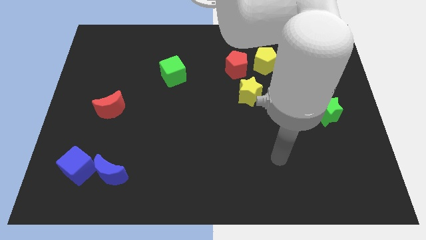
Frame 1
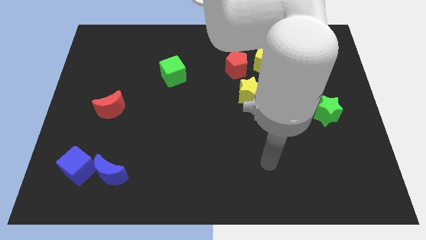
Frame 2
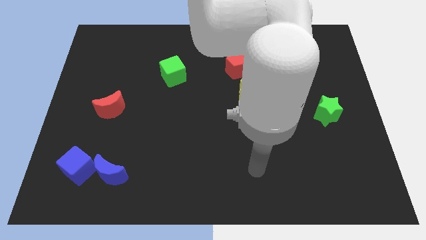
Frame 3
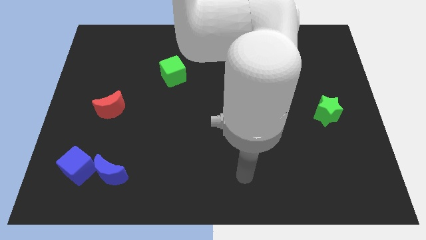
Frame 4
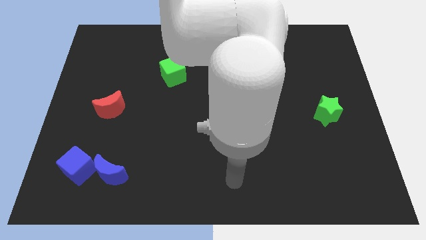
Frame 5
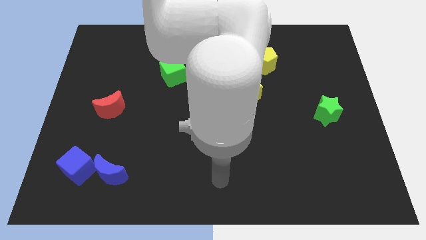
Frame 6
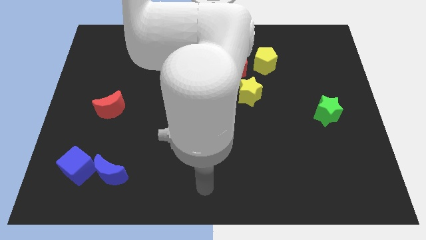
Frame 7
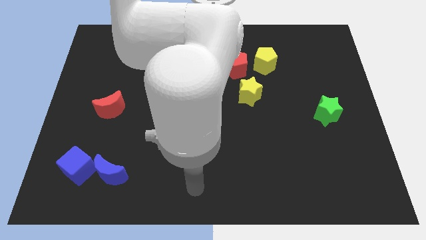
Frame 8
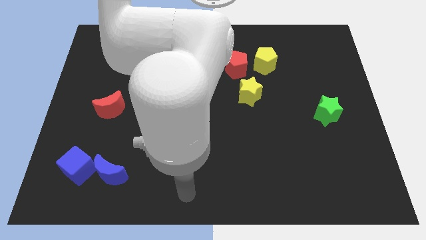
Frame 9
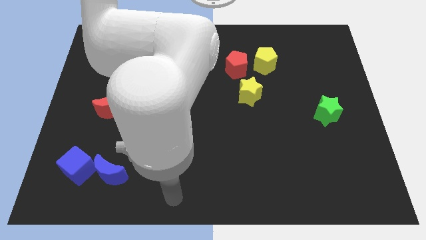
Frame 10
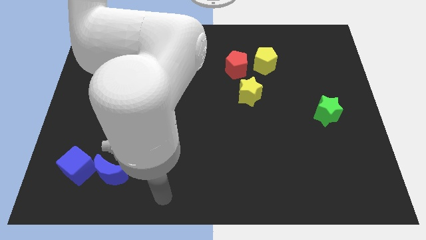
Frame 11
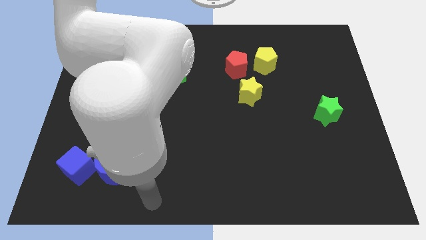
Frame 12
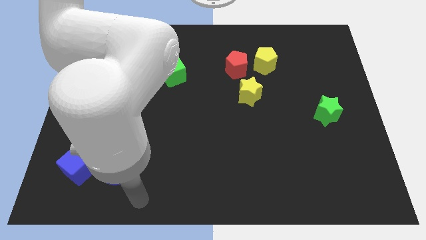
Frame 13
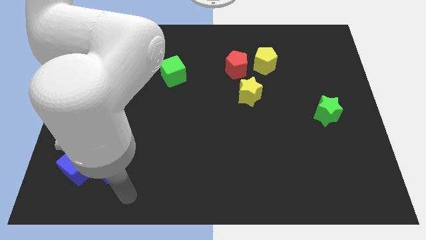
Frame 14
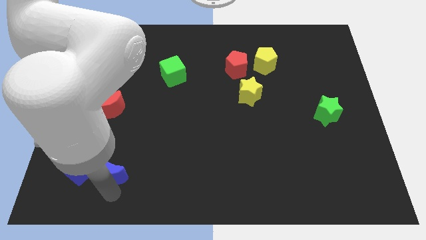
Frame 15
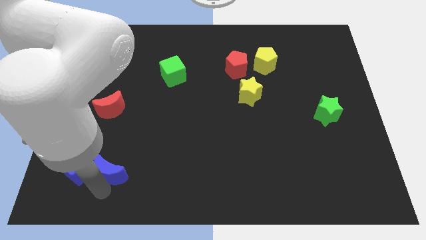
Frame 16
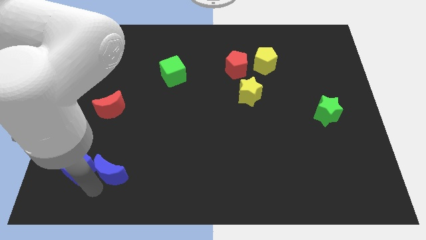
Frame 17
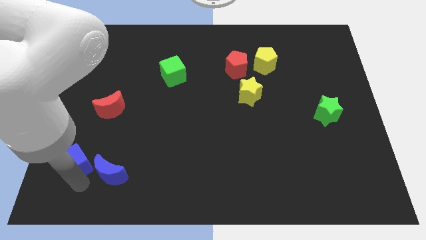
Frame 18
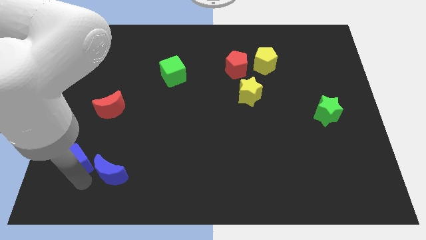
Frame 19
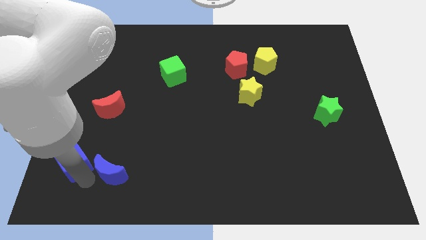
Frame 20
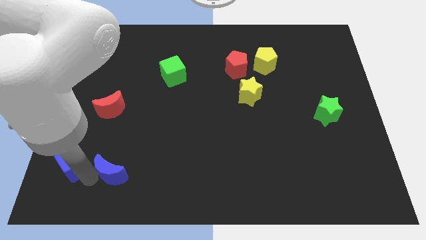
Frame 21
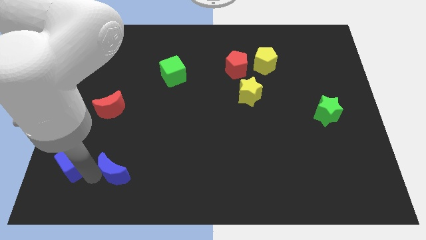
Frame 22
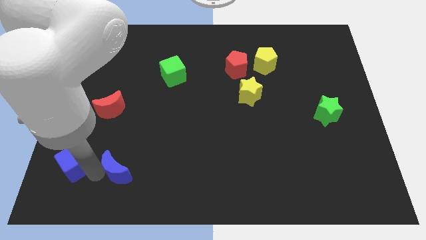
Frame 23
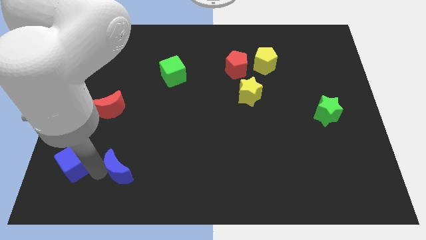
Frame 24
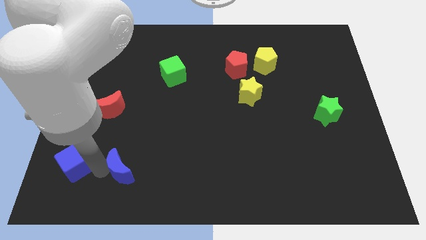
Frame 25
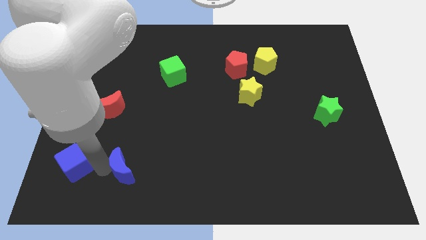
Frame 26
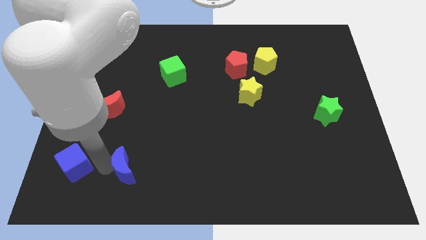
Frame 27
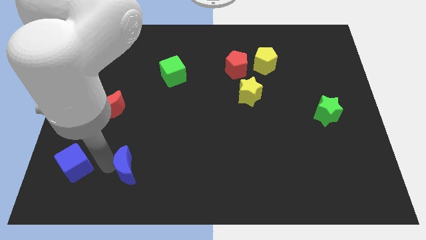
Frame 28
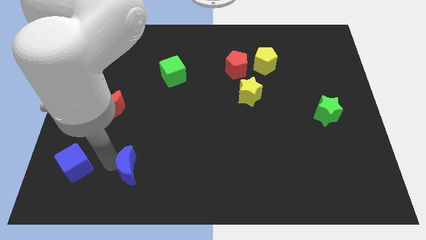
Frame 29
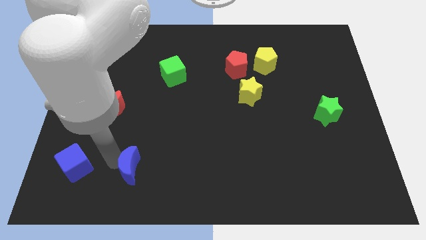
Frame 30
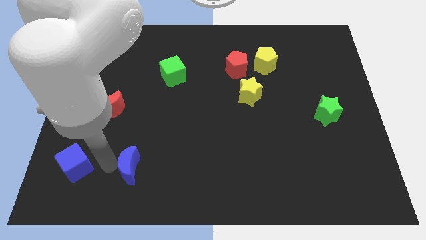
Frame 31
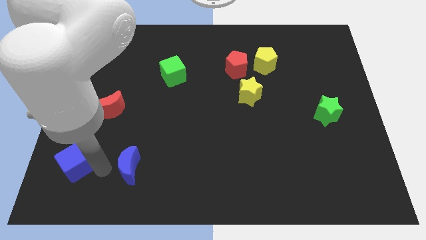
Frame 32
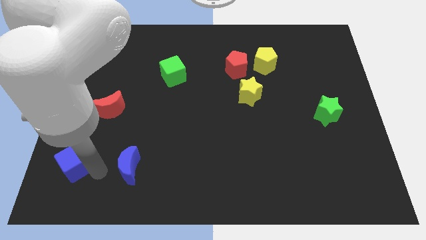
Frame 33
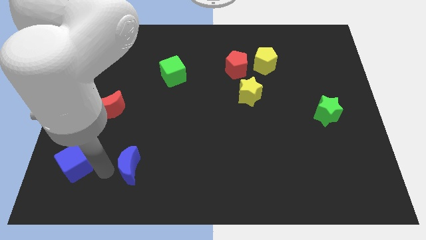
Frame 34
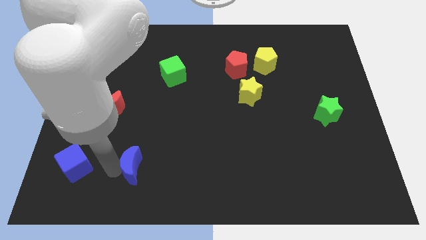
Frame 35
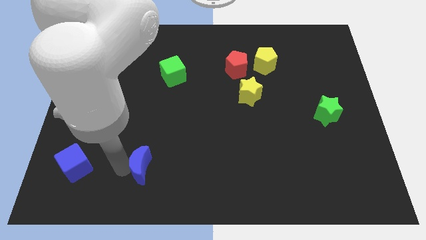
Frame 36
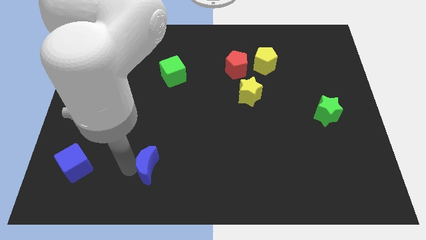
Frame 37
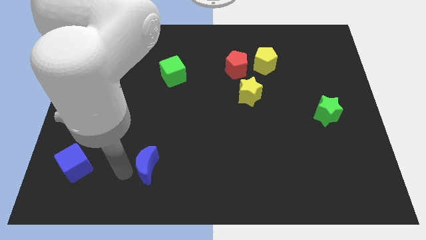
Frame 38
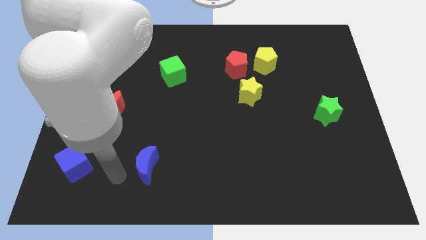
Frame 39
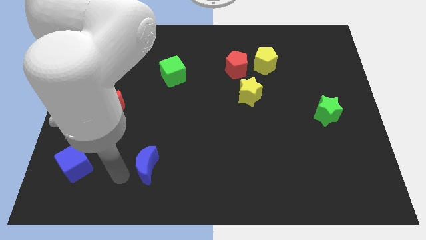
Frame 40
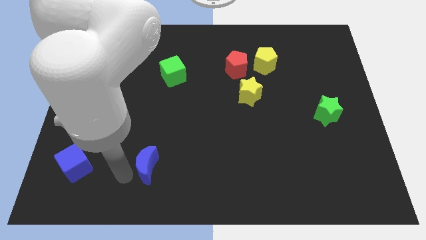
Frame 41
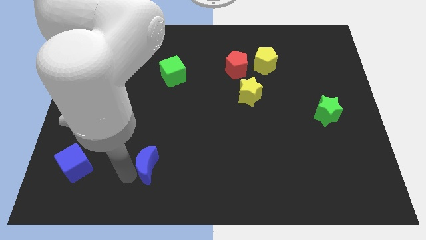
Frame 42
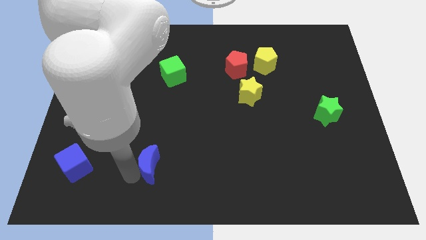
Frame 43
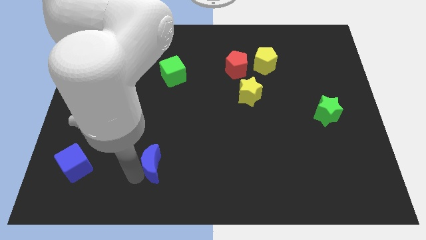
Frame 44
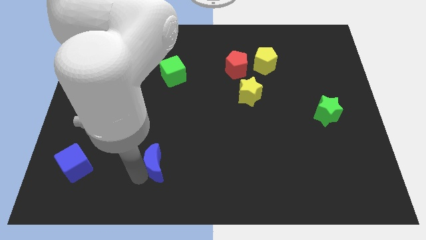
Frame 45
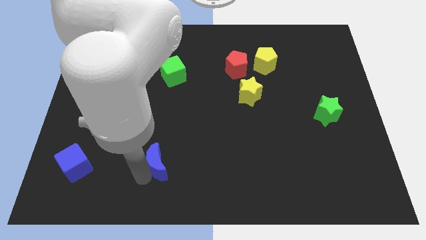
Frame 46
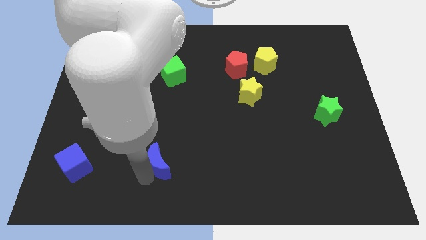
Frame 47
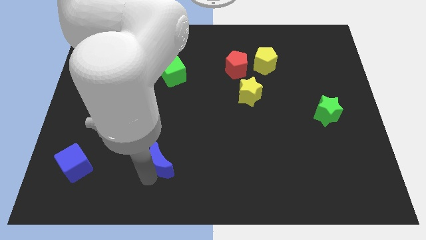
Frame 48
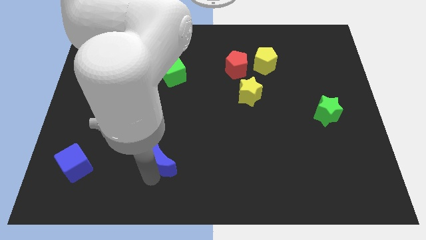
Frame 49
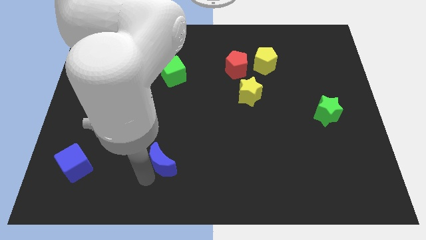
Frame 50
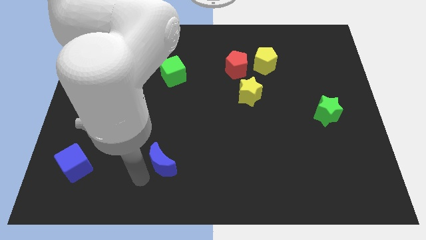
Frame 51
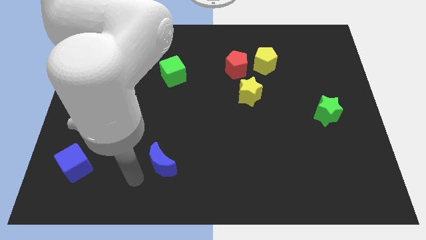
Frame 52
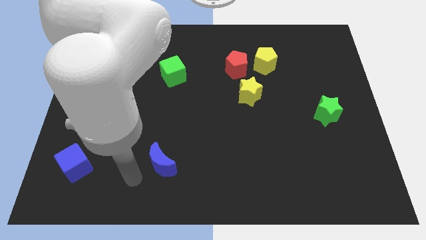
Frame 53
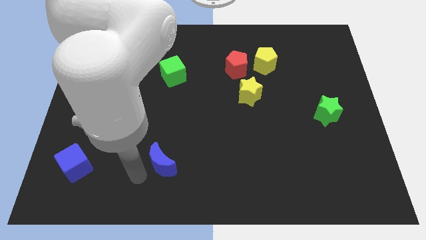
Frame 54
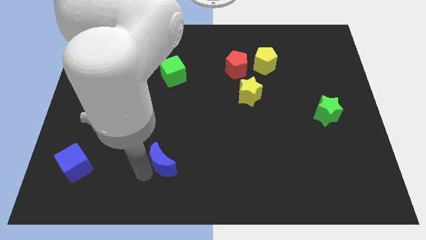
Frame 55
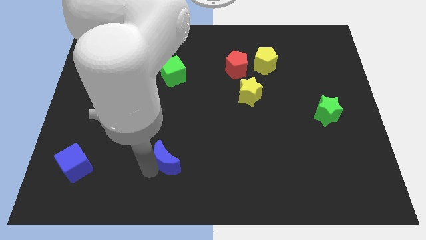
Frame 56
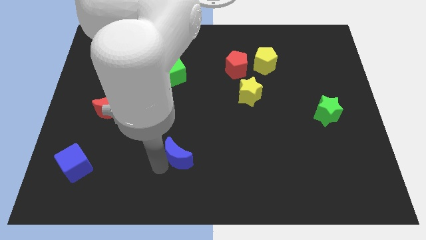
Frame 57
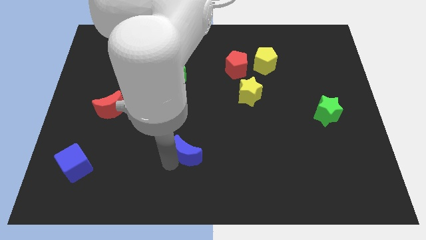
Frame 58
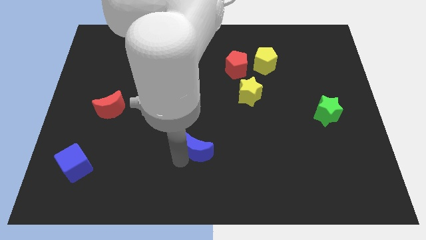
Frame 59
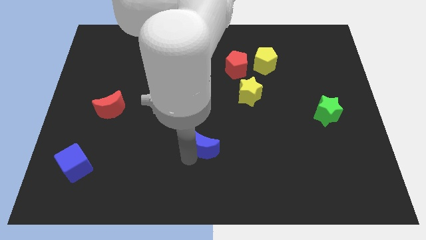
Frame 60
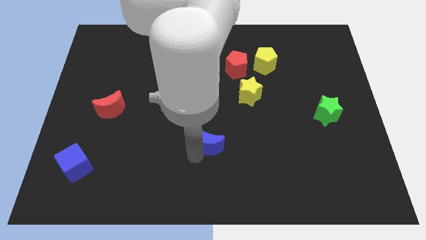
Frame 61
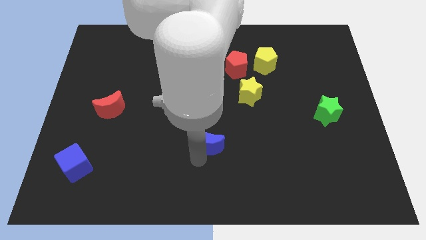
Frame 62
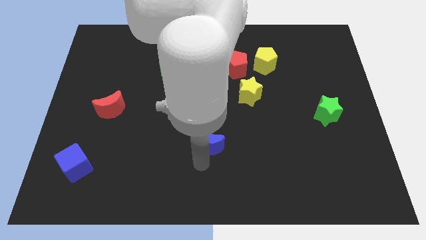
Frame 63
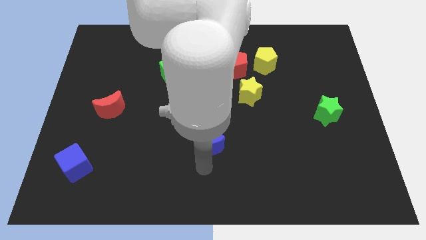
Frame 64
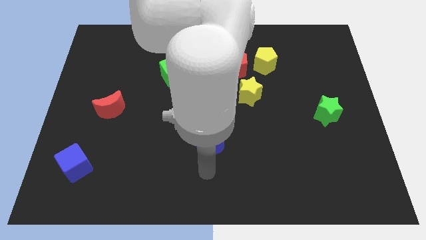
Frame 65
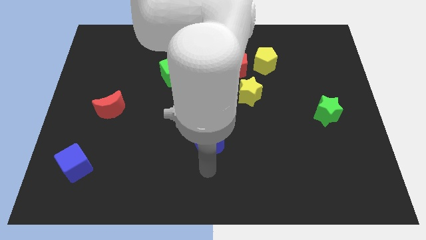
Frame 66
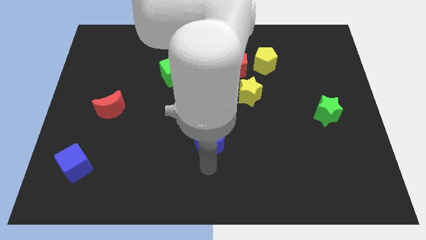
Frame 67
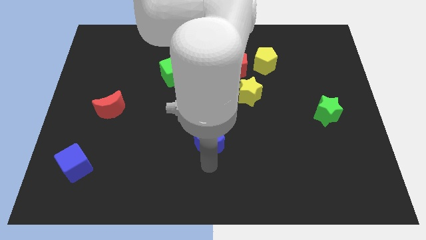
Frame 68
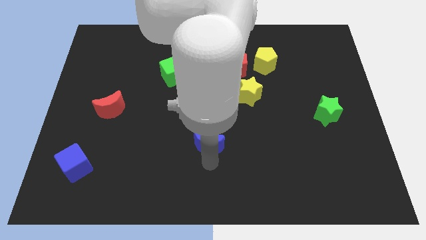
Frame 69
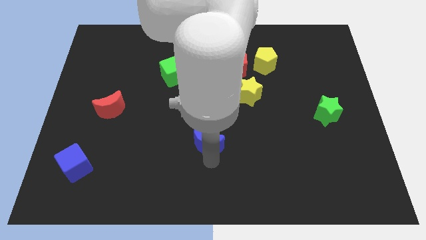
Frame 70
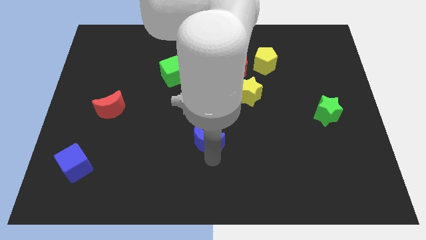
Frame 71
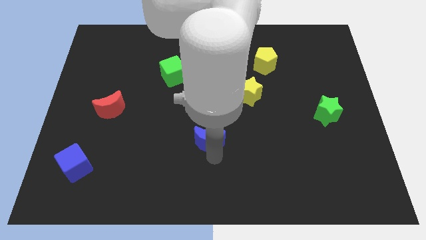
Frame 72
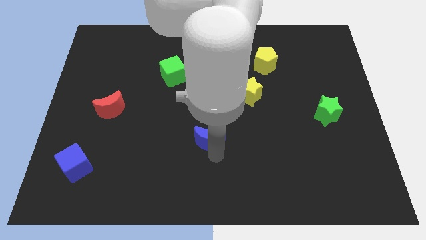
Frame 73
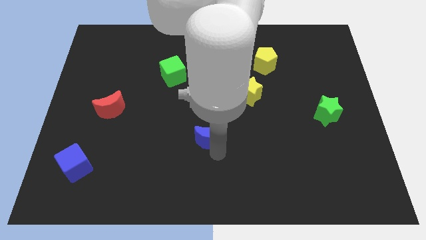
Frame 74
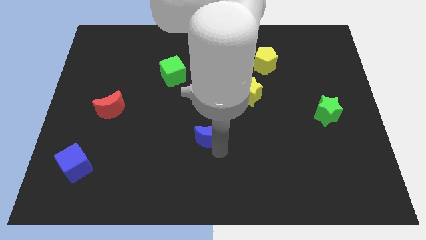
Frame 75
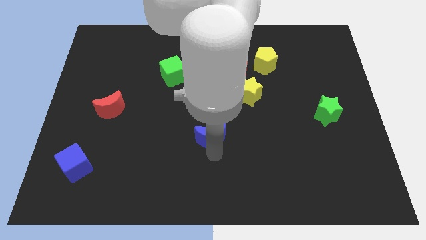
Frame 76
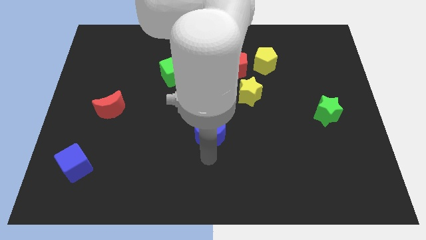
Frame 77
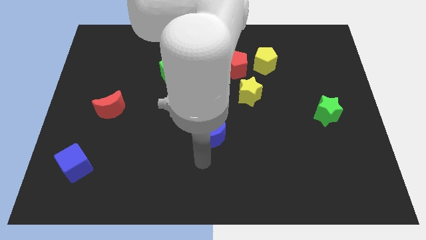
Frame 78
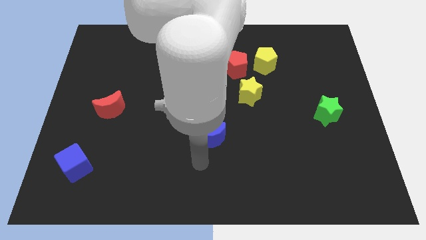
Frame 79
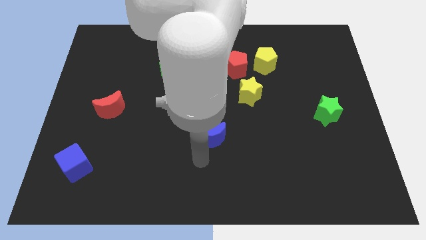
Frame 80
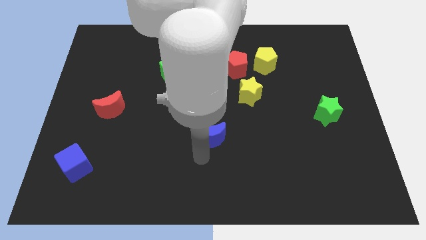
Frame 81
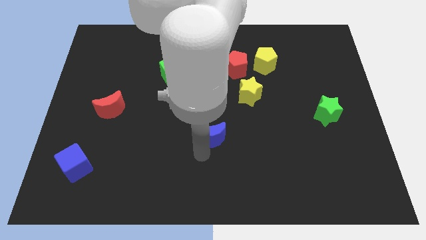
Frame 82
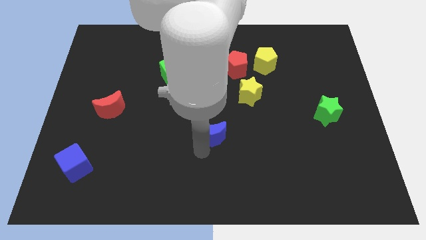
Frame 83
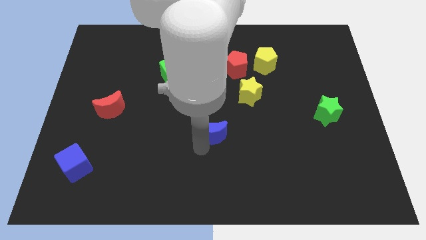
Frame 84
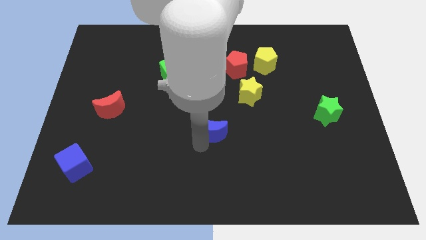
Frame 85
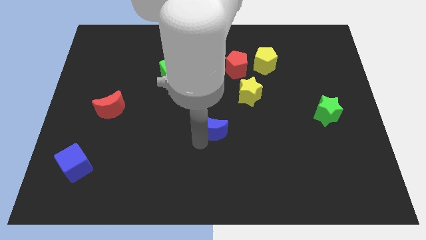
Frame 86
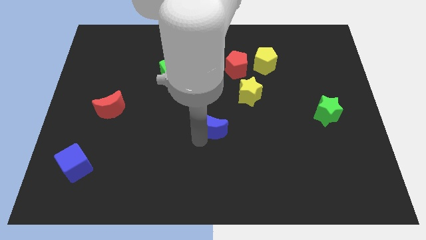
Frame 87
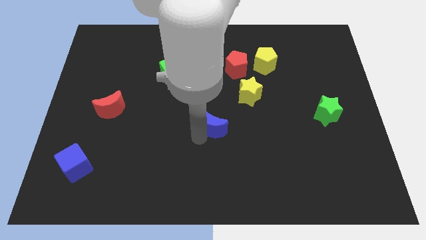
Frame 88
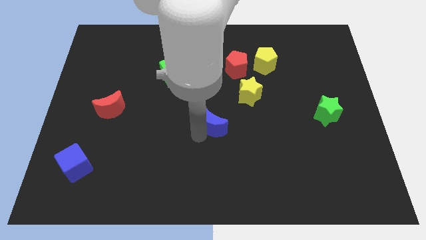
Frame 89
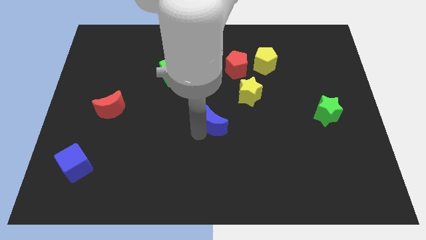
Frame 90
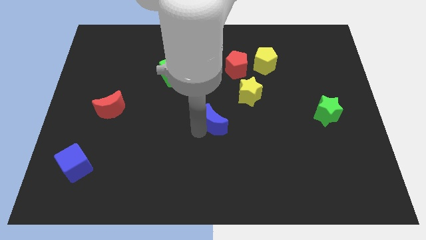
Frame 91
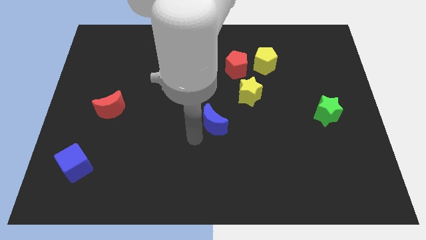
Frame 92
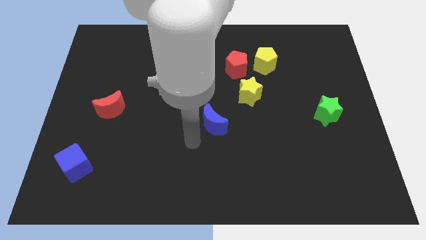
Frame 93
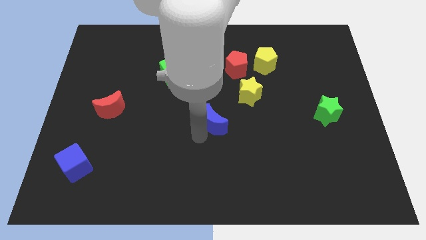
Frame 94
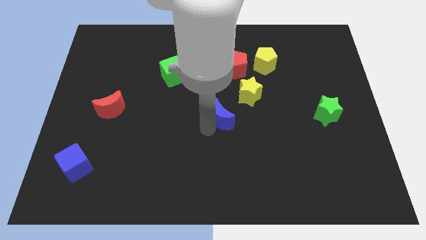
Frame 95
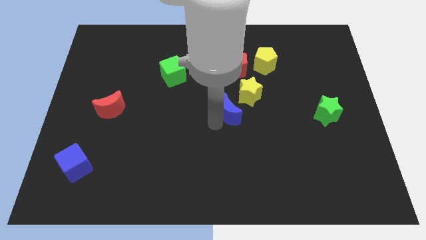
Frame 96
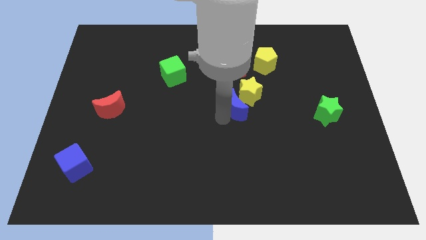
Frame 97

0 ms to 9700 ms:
push the blue moon towards the yellow star
